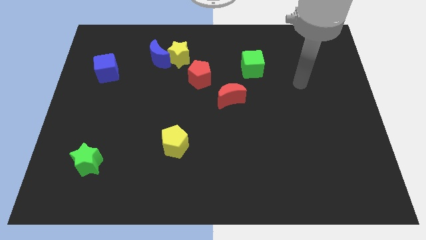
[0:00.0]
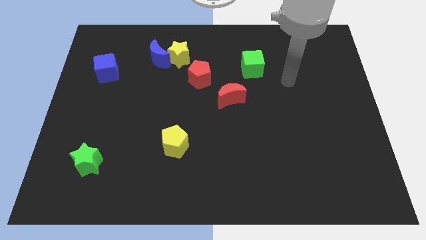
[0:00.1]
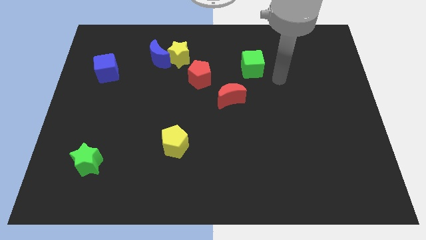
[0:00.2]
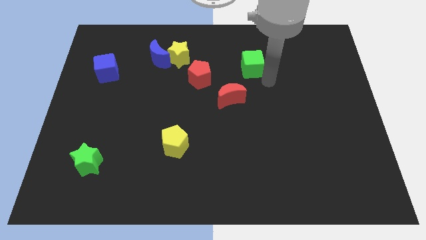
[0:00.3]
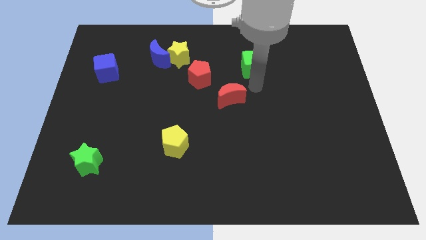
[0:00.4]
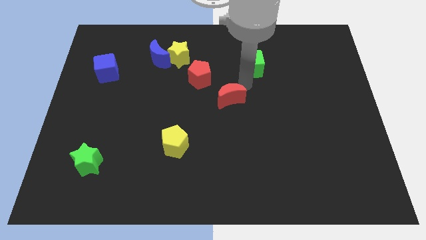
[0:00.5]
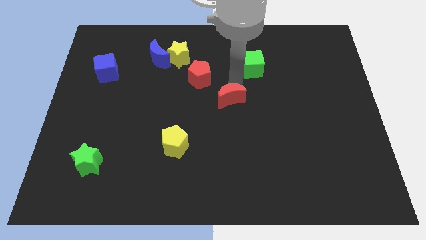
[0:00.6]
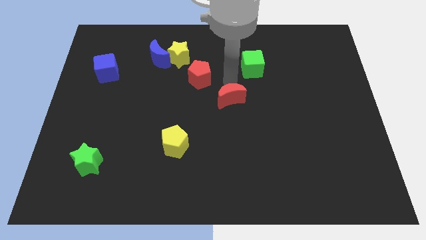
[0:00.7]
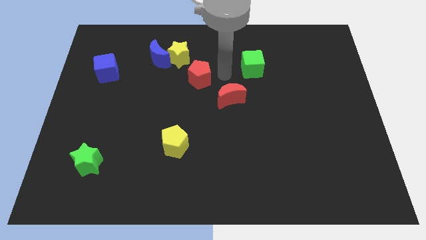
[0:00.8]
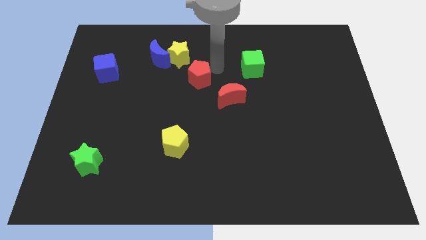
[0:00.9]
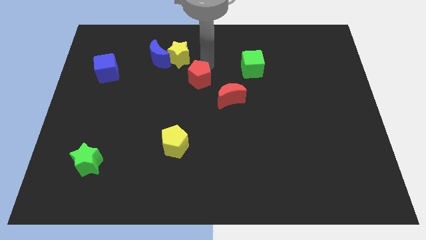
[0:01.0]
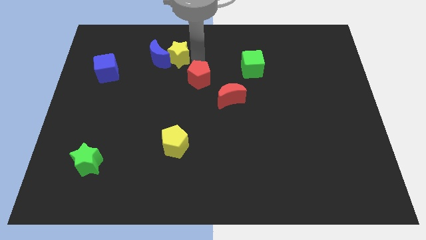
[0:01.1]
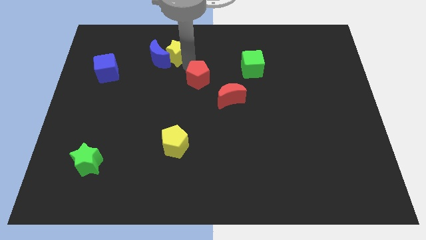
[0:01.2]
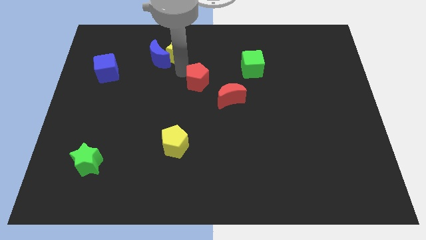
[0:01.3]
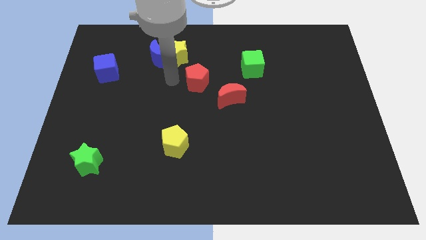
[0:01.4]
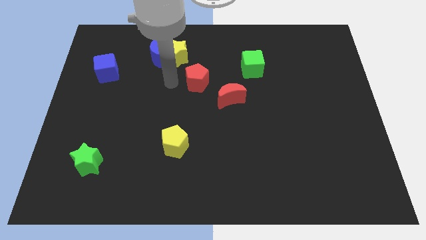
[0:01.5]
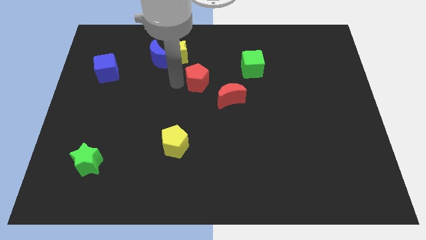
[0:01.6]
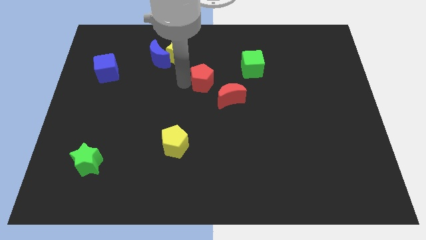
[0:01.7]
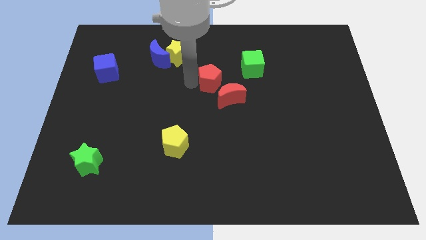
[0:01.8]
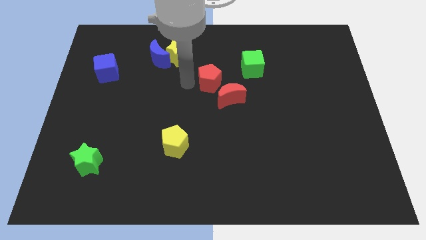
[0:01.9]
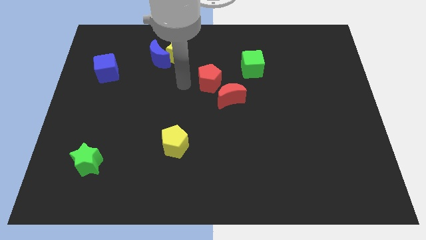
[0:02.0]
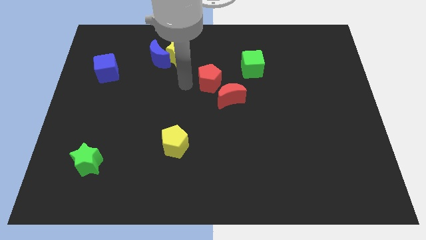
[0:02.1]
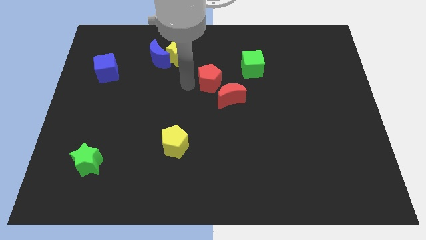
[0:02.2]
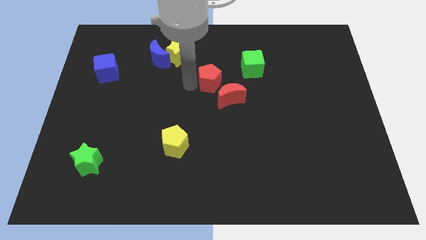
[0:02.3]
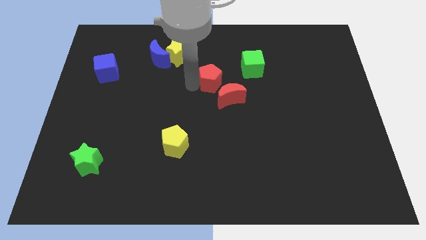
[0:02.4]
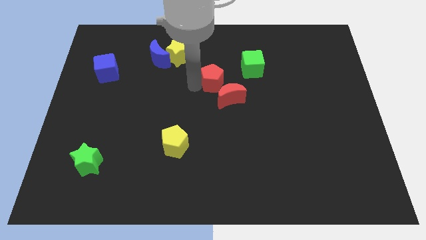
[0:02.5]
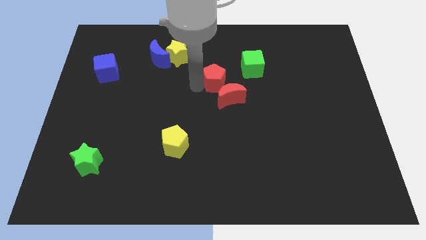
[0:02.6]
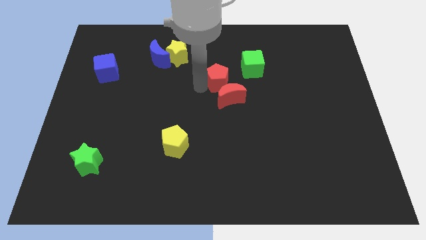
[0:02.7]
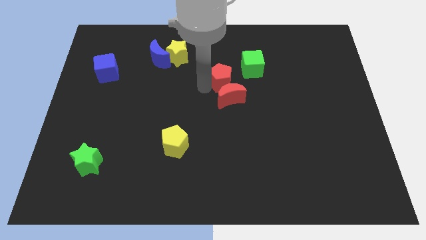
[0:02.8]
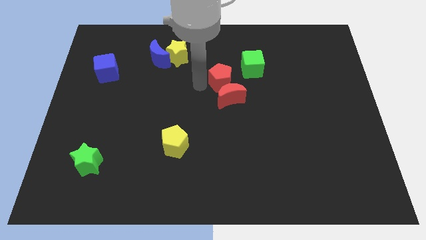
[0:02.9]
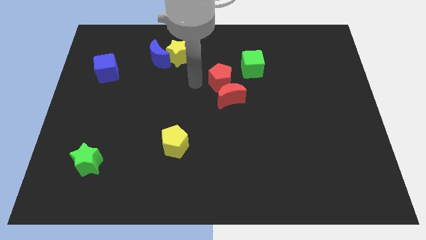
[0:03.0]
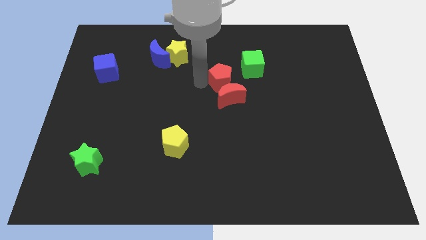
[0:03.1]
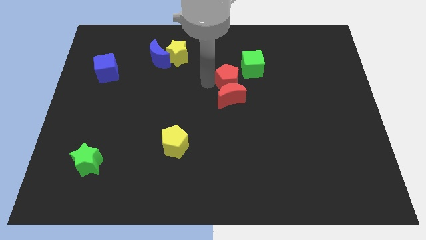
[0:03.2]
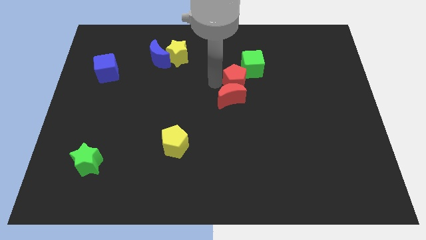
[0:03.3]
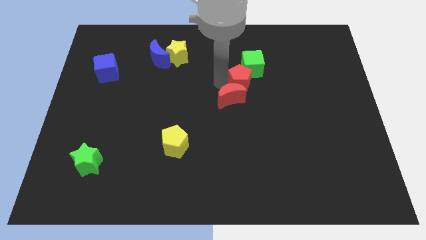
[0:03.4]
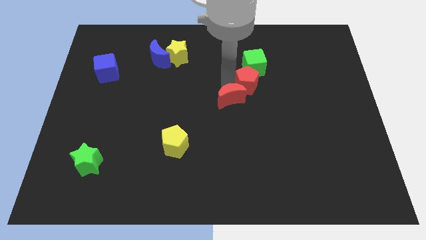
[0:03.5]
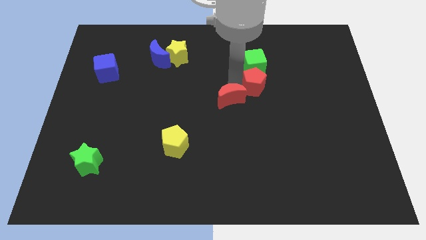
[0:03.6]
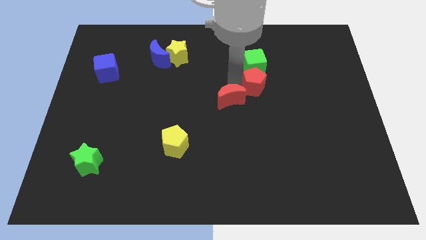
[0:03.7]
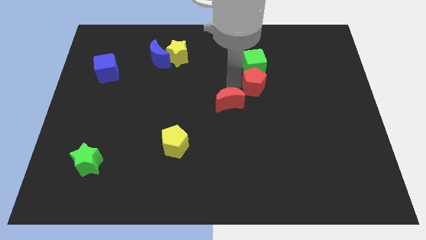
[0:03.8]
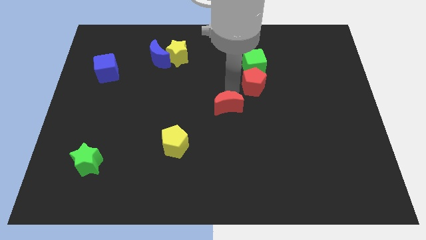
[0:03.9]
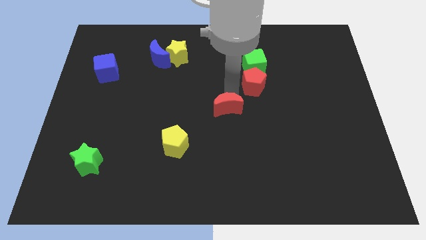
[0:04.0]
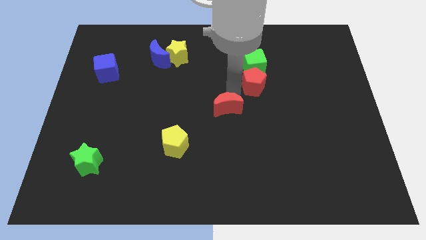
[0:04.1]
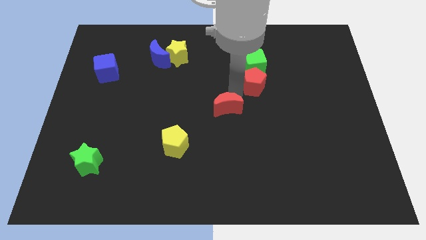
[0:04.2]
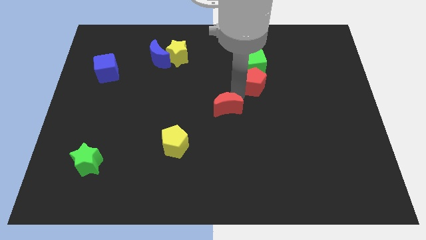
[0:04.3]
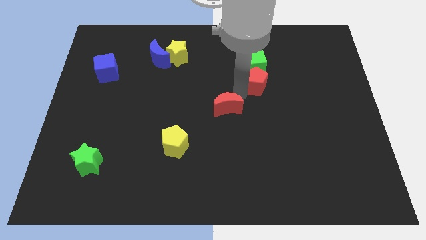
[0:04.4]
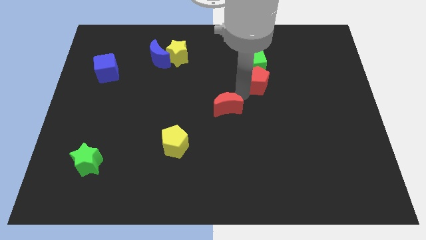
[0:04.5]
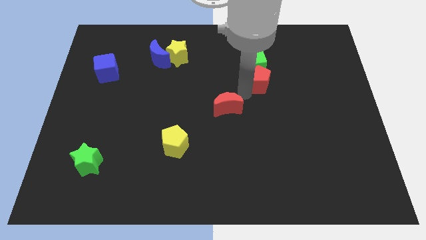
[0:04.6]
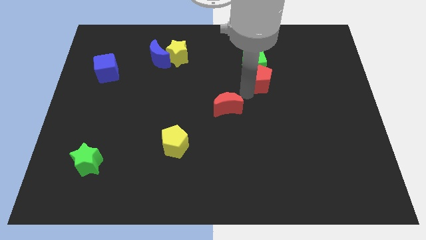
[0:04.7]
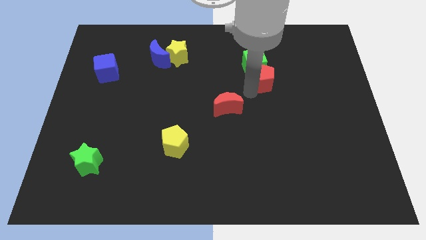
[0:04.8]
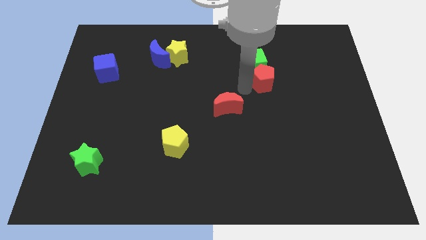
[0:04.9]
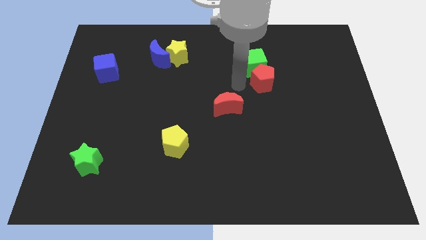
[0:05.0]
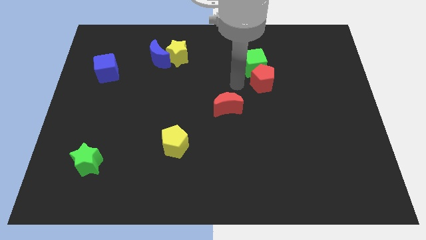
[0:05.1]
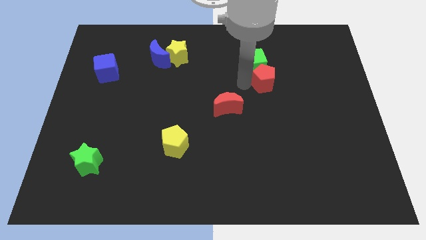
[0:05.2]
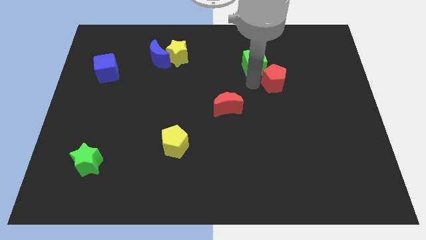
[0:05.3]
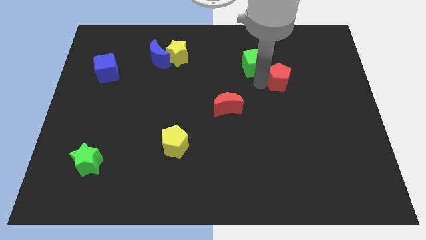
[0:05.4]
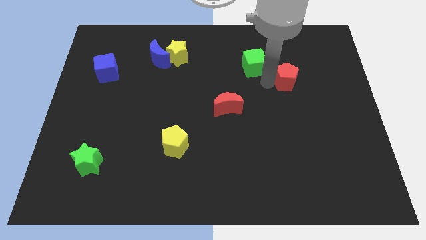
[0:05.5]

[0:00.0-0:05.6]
push the red pentagon to the right

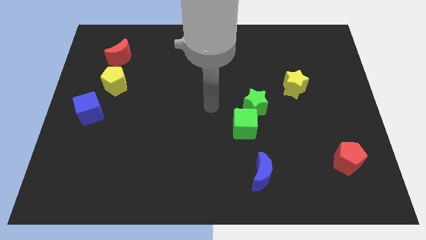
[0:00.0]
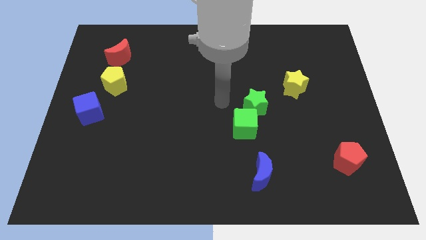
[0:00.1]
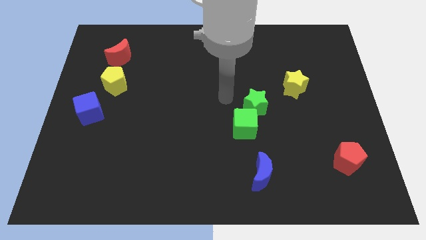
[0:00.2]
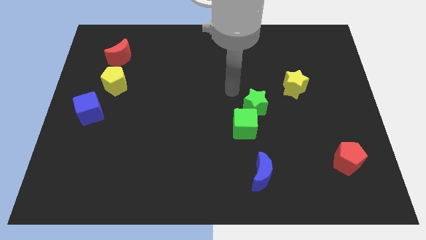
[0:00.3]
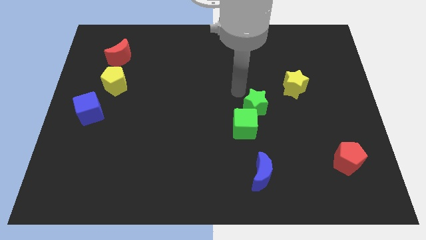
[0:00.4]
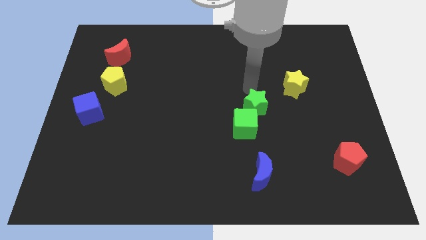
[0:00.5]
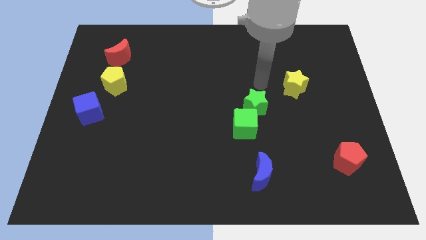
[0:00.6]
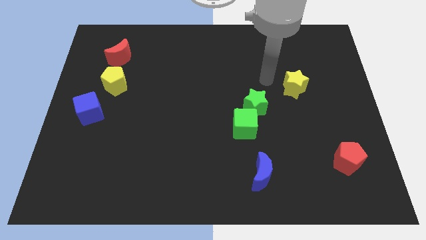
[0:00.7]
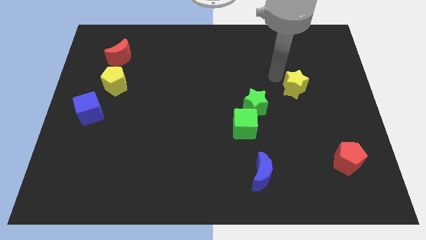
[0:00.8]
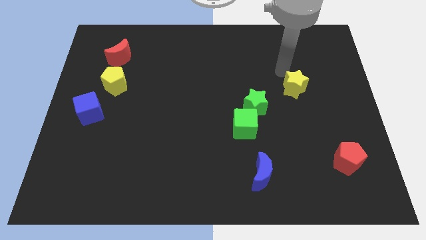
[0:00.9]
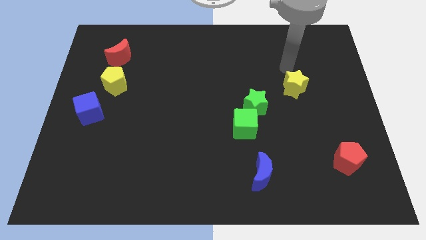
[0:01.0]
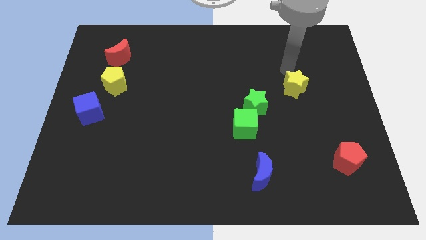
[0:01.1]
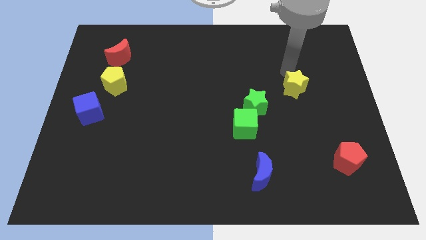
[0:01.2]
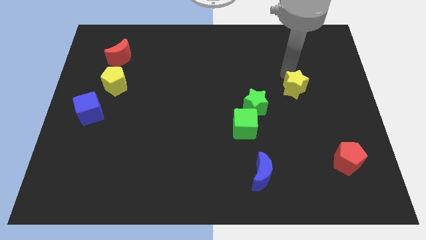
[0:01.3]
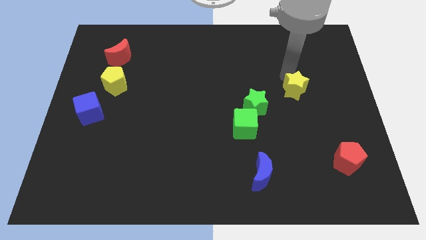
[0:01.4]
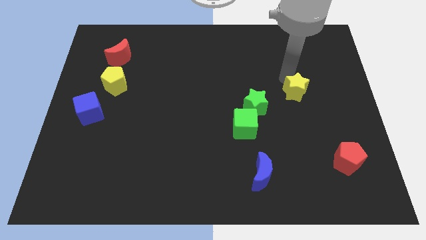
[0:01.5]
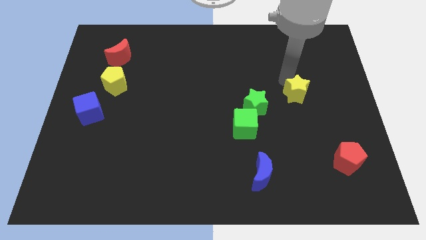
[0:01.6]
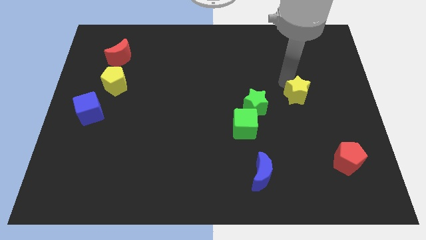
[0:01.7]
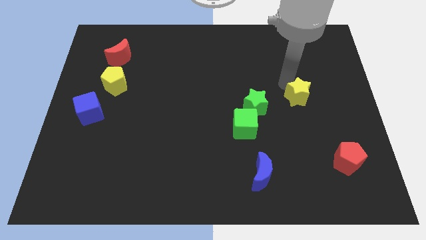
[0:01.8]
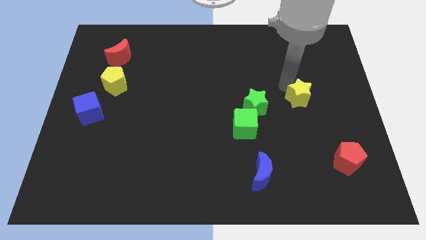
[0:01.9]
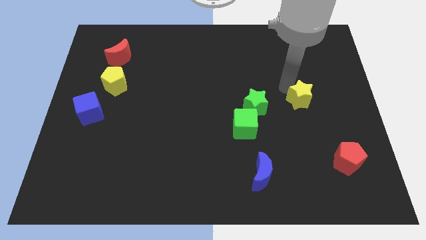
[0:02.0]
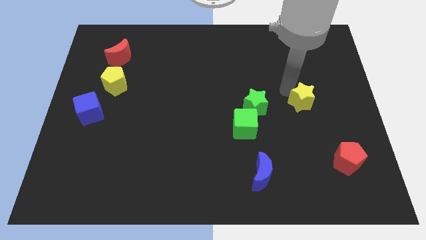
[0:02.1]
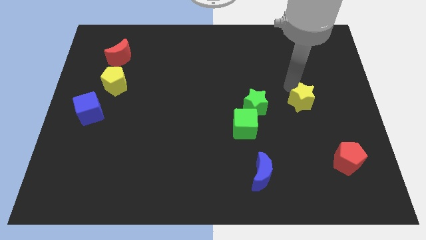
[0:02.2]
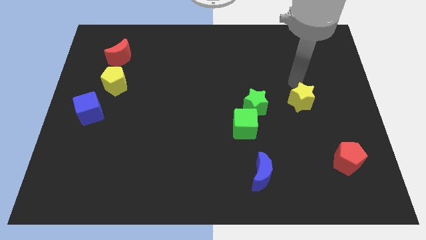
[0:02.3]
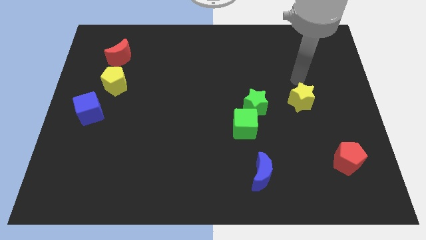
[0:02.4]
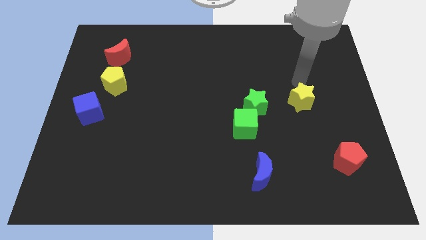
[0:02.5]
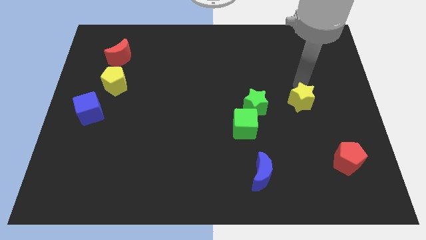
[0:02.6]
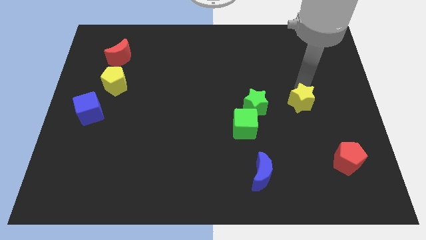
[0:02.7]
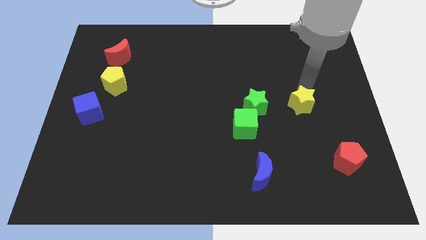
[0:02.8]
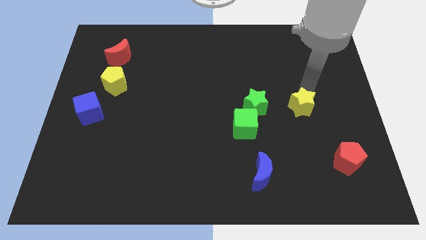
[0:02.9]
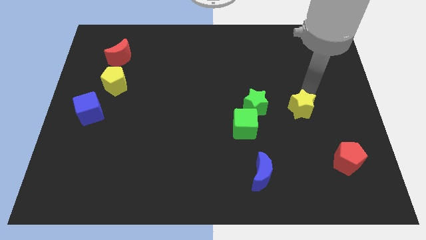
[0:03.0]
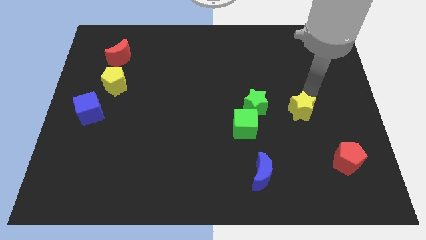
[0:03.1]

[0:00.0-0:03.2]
slightly push the yellow star down

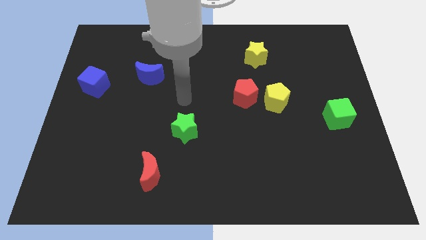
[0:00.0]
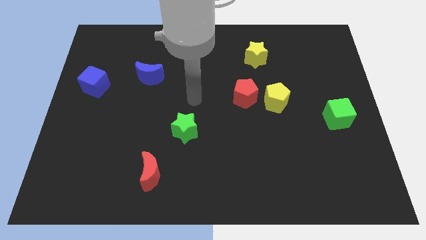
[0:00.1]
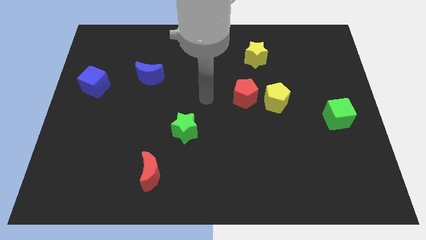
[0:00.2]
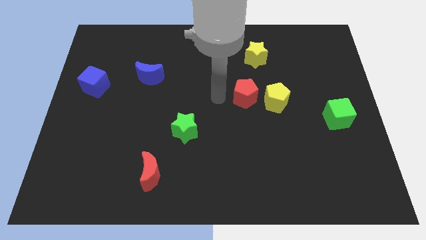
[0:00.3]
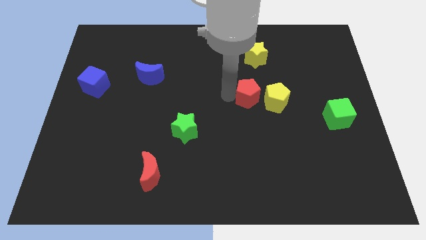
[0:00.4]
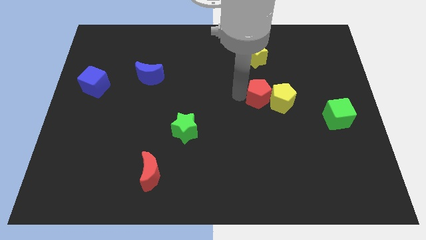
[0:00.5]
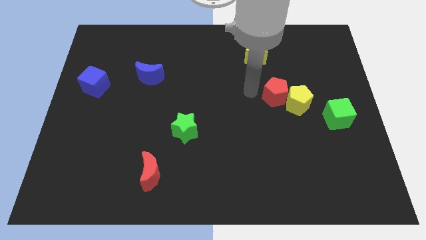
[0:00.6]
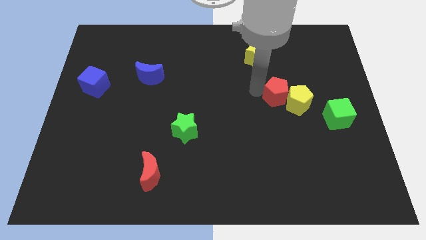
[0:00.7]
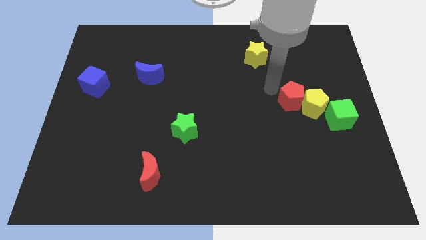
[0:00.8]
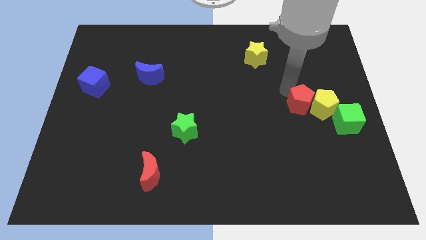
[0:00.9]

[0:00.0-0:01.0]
slightly move the yellow pentagon down and right
